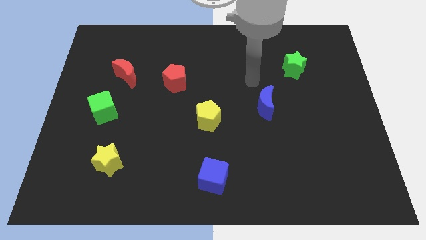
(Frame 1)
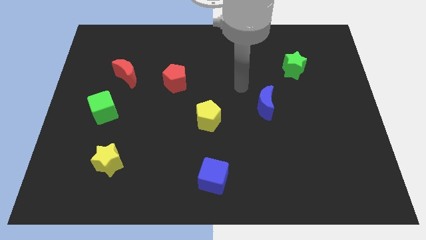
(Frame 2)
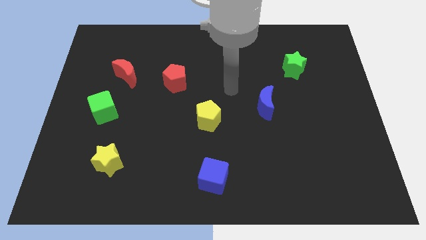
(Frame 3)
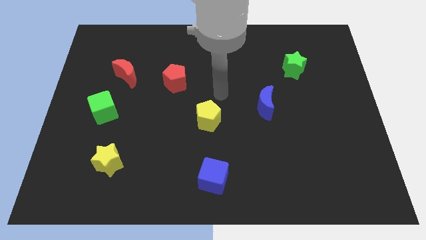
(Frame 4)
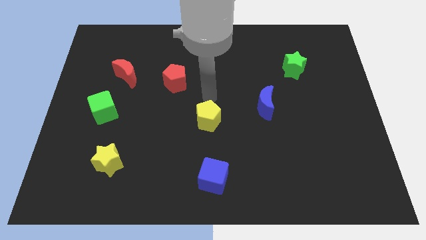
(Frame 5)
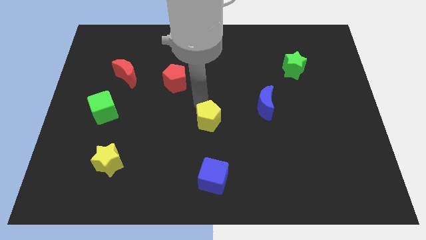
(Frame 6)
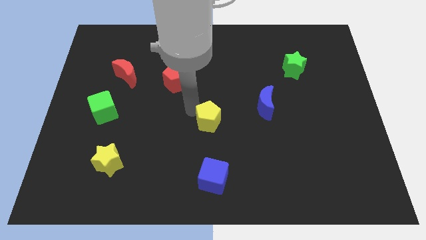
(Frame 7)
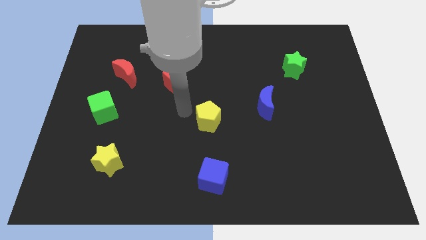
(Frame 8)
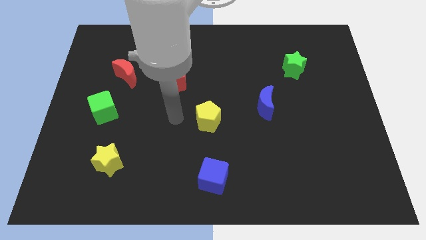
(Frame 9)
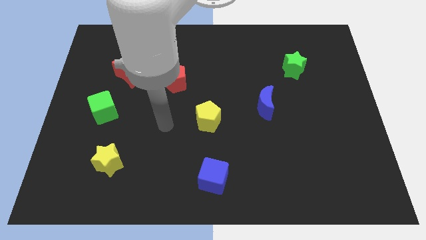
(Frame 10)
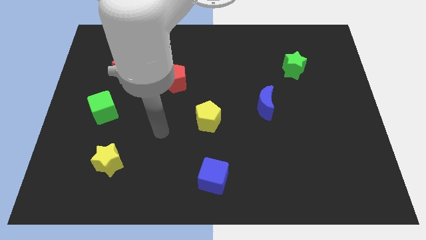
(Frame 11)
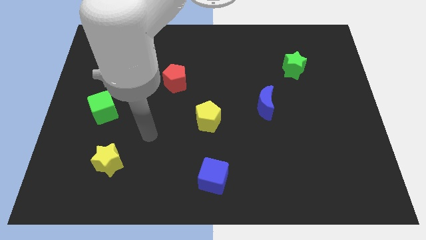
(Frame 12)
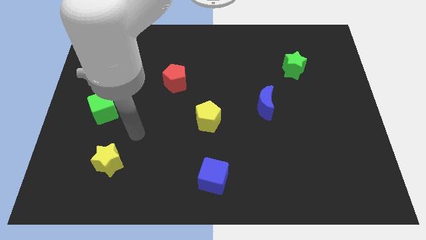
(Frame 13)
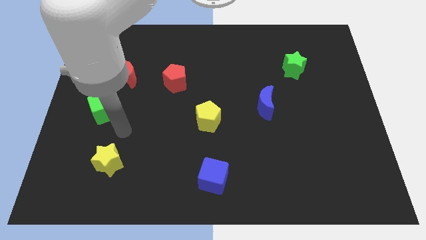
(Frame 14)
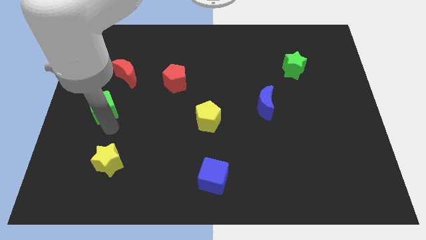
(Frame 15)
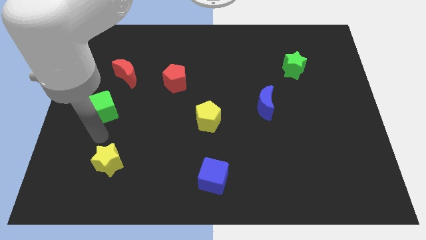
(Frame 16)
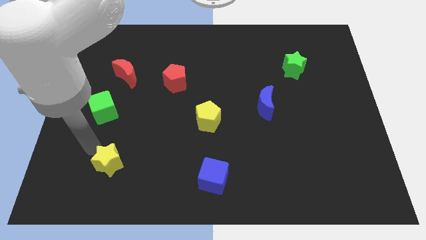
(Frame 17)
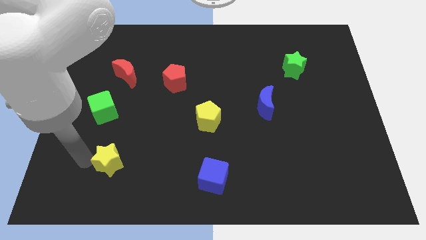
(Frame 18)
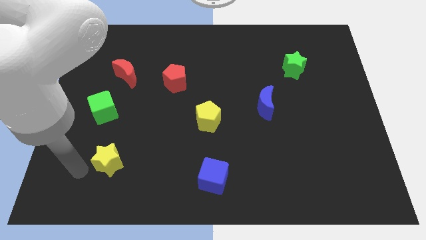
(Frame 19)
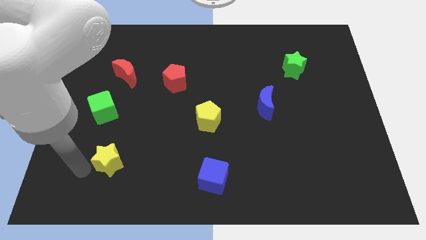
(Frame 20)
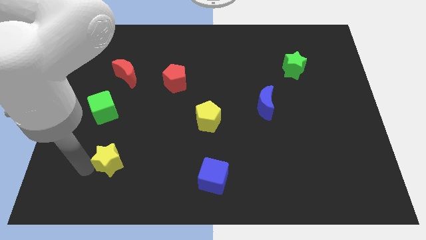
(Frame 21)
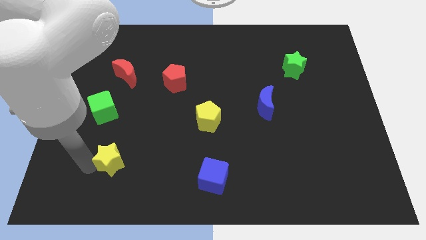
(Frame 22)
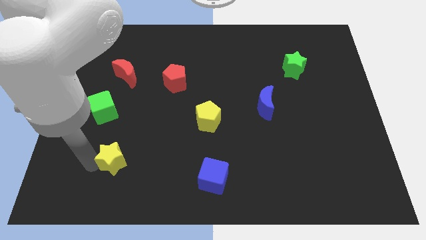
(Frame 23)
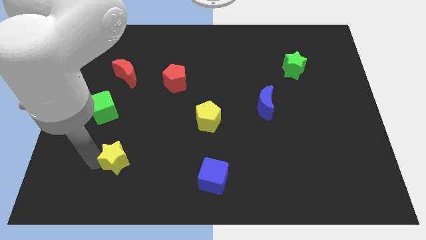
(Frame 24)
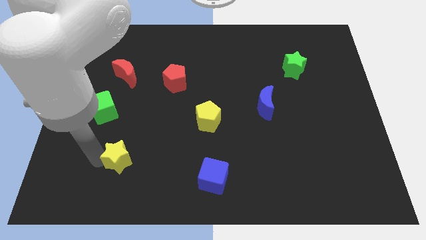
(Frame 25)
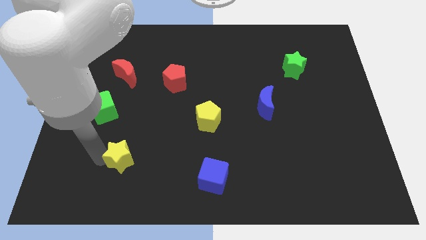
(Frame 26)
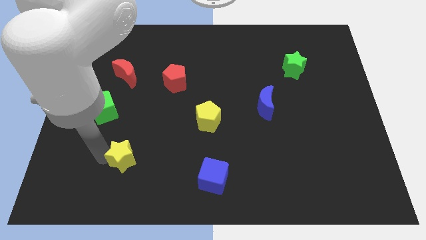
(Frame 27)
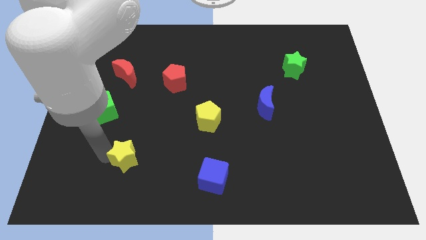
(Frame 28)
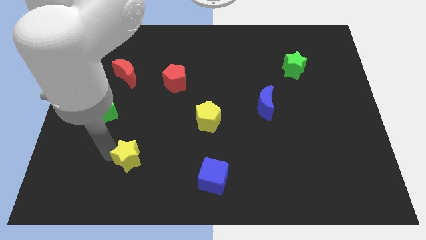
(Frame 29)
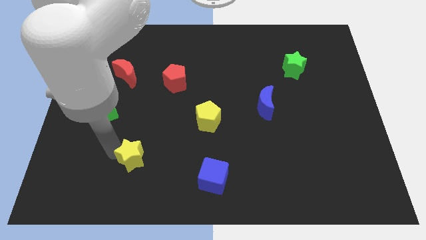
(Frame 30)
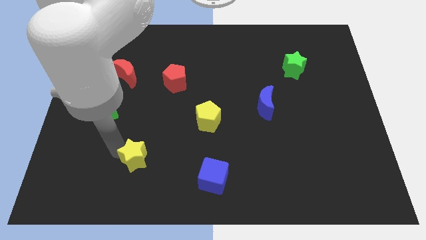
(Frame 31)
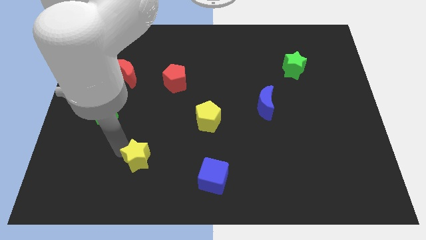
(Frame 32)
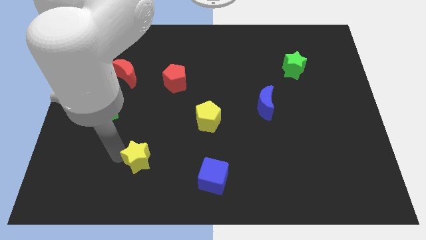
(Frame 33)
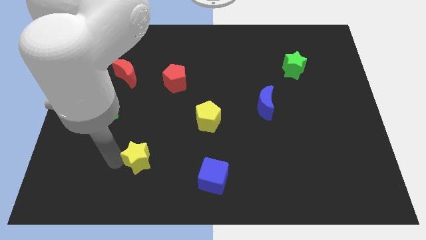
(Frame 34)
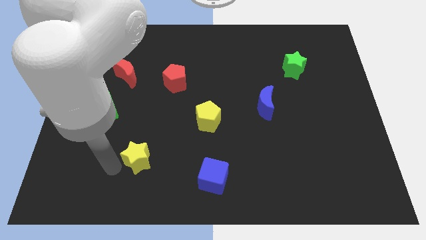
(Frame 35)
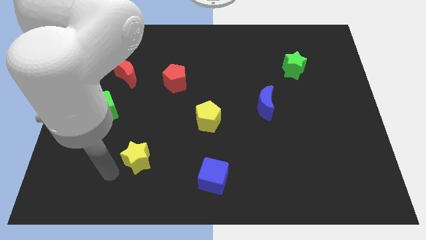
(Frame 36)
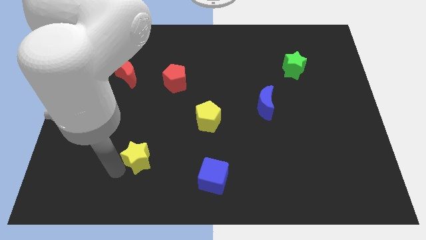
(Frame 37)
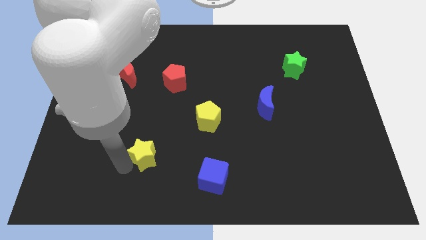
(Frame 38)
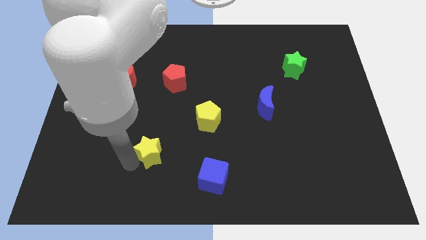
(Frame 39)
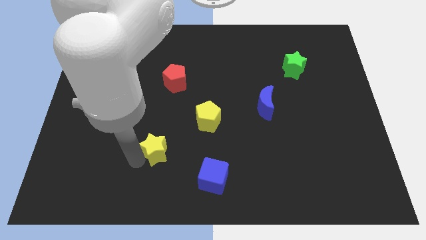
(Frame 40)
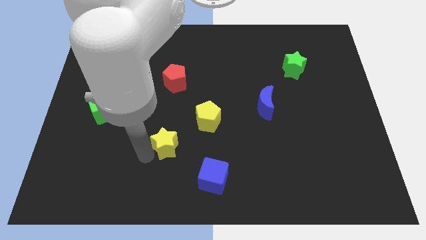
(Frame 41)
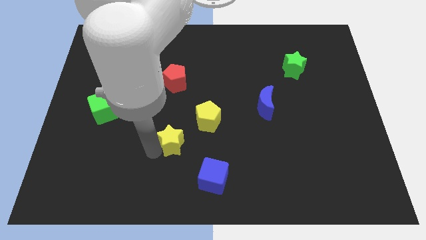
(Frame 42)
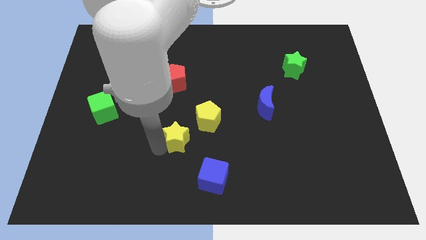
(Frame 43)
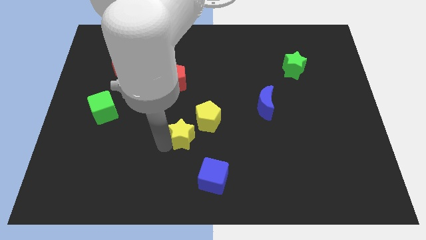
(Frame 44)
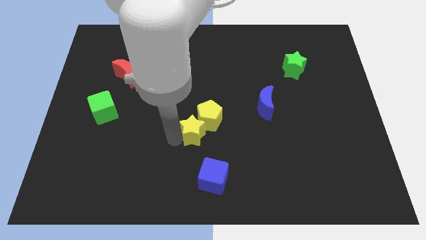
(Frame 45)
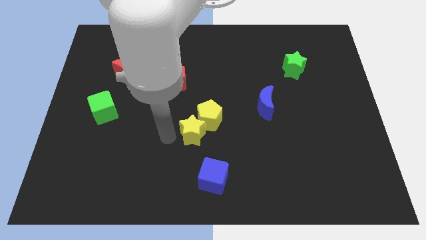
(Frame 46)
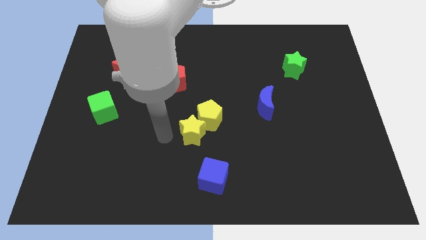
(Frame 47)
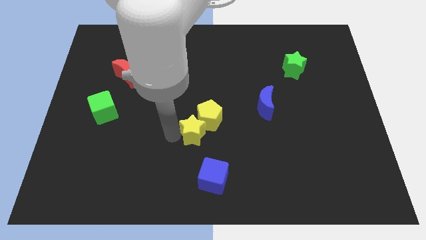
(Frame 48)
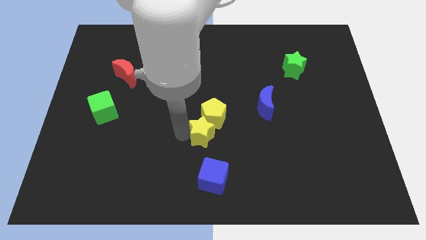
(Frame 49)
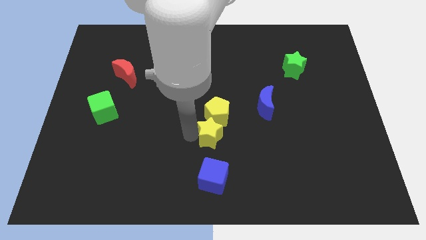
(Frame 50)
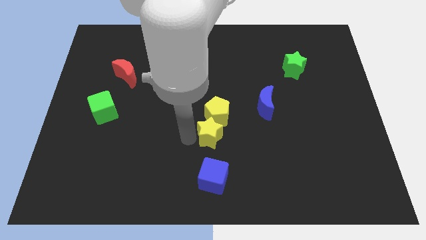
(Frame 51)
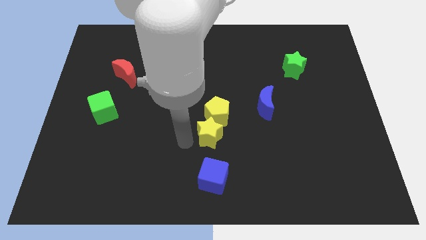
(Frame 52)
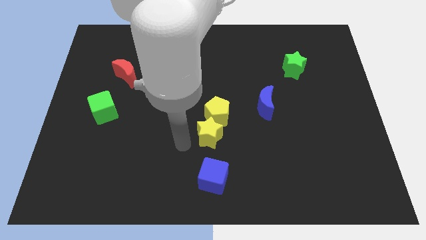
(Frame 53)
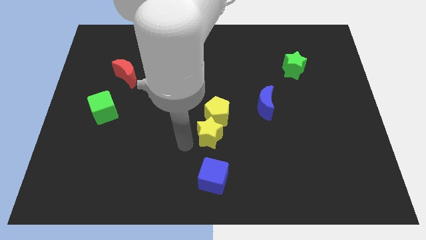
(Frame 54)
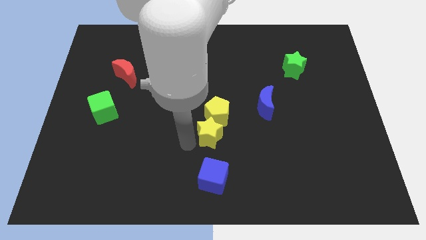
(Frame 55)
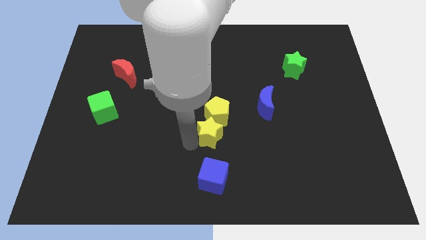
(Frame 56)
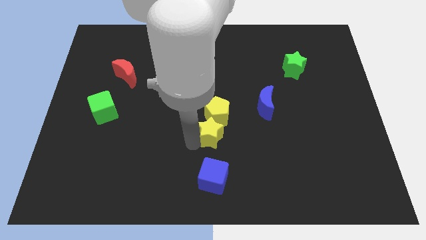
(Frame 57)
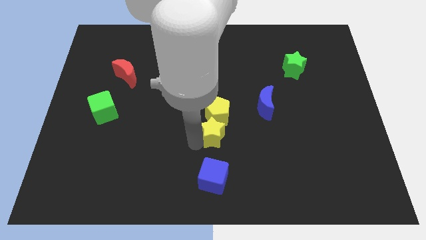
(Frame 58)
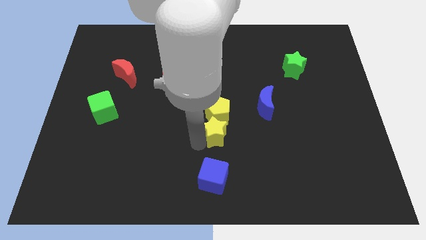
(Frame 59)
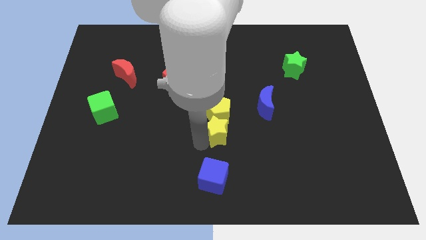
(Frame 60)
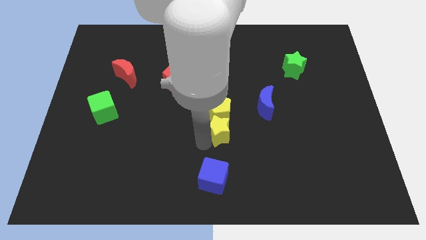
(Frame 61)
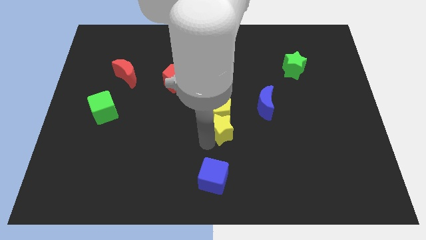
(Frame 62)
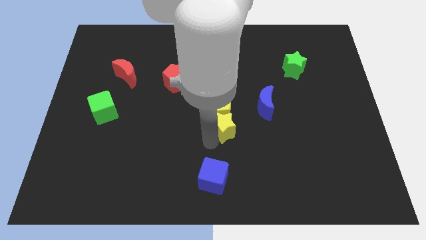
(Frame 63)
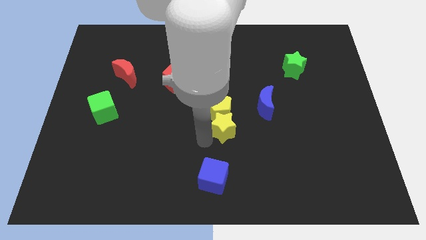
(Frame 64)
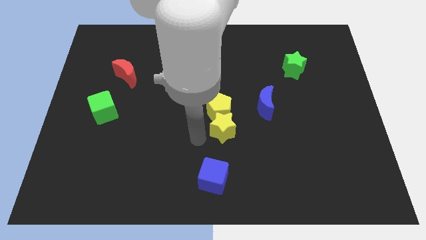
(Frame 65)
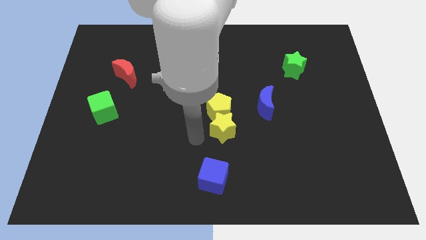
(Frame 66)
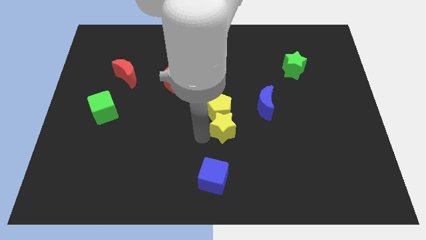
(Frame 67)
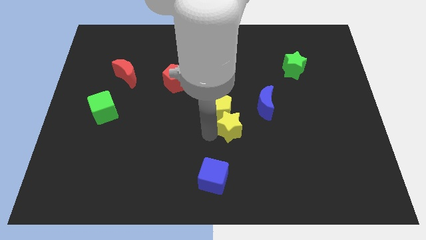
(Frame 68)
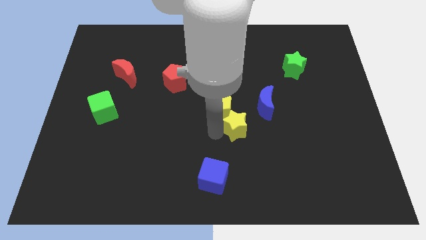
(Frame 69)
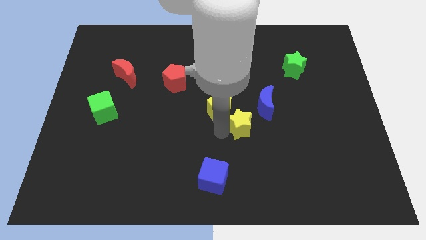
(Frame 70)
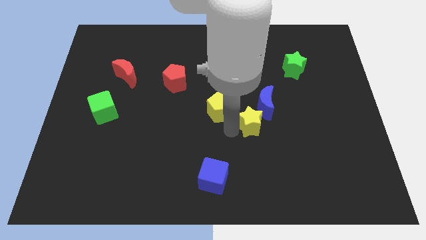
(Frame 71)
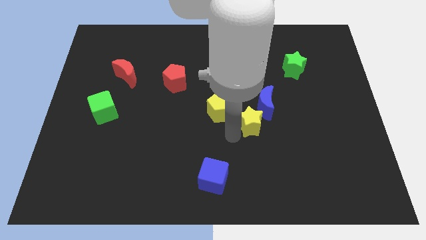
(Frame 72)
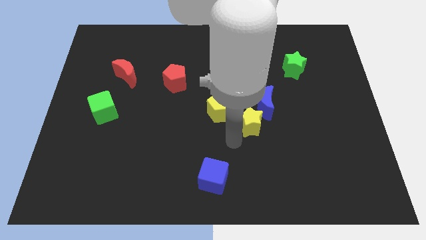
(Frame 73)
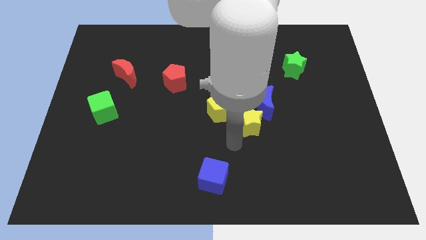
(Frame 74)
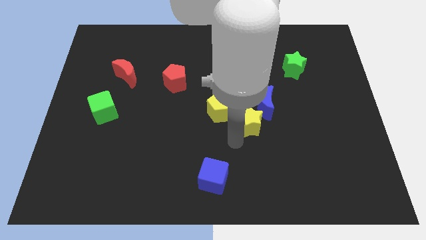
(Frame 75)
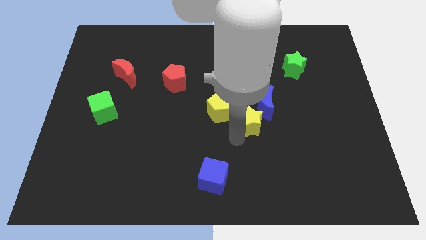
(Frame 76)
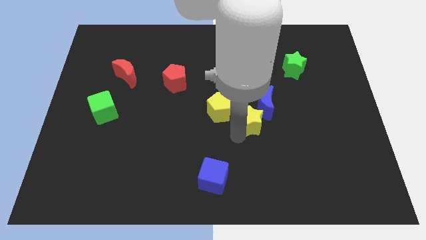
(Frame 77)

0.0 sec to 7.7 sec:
slide the yellow star close to the blue moon

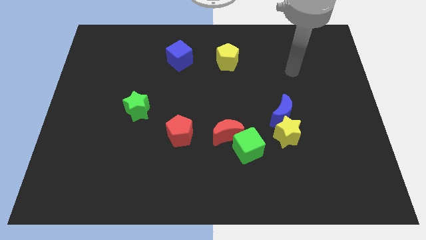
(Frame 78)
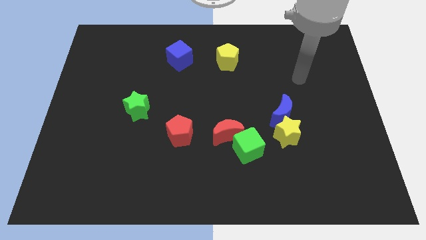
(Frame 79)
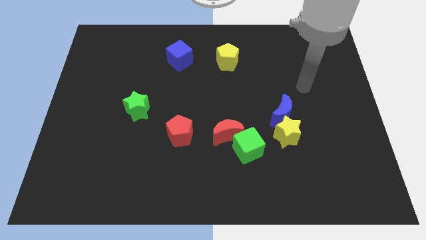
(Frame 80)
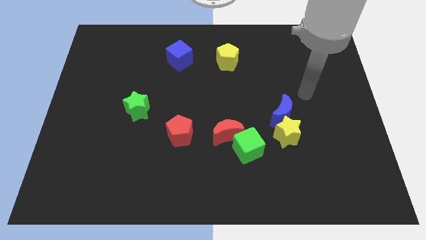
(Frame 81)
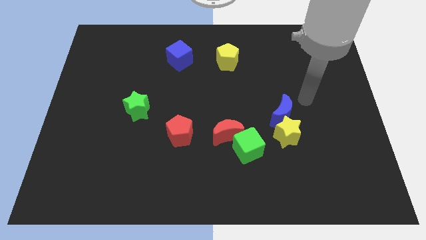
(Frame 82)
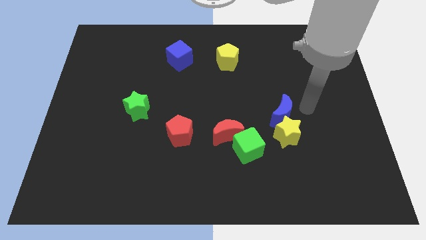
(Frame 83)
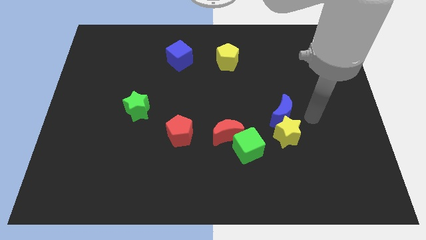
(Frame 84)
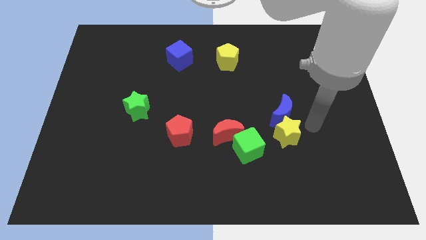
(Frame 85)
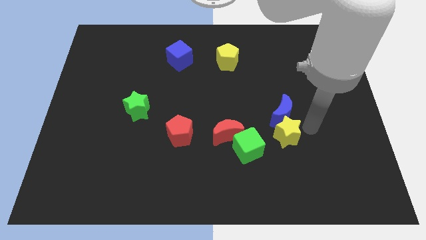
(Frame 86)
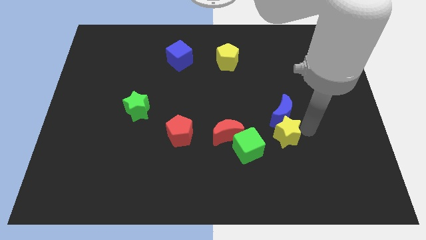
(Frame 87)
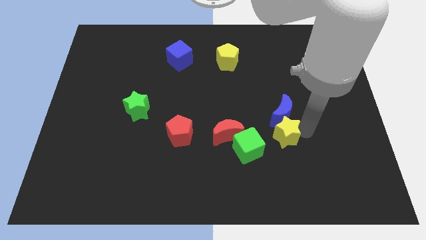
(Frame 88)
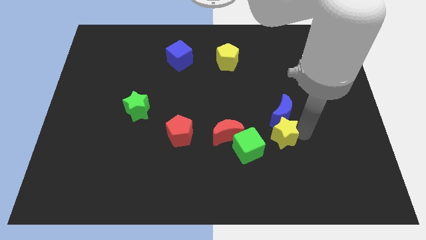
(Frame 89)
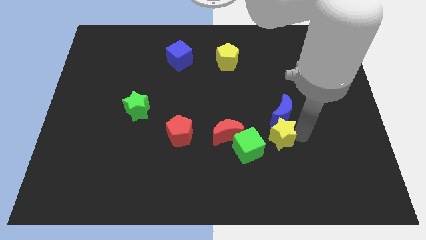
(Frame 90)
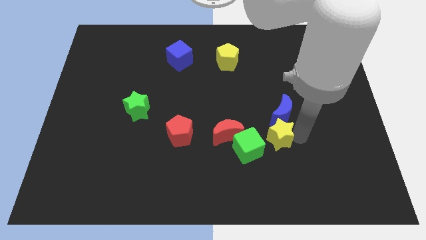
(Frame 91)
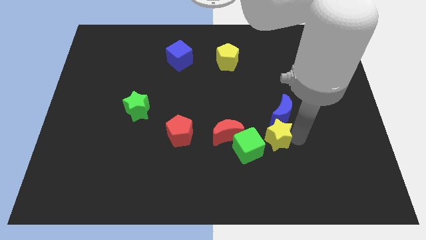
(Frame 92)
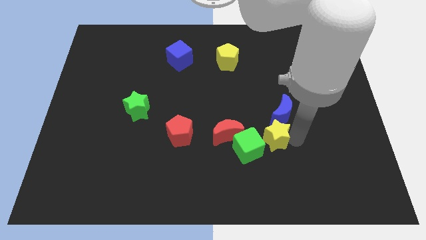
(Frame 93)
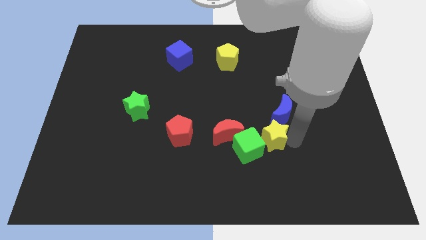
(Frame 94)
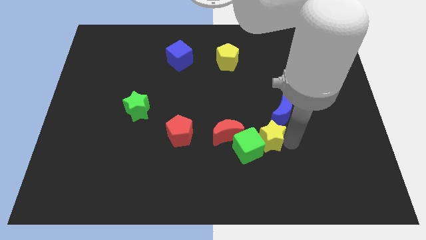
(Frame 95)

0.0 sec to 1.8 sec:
push the yellow star next to the green cube
